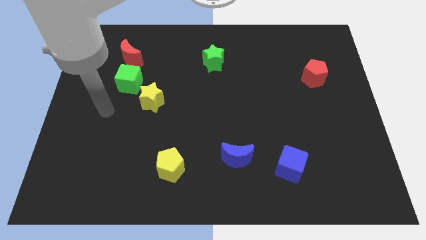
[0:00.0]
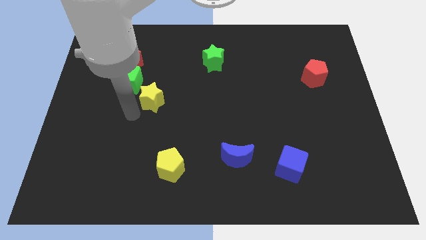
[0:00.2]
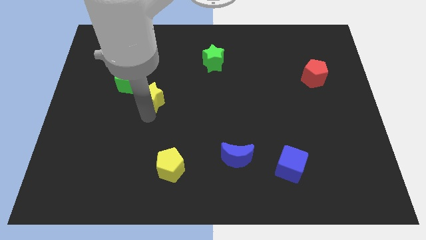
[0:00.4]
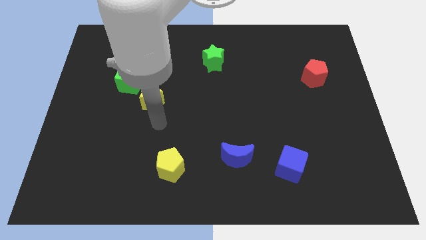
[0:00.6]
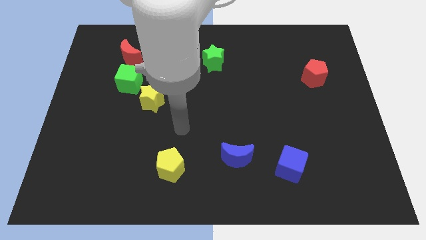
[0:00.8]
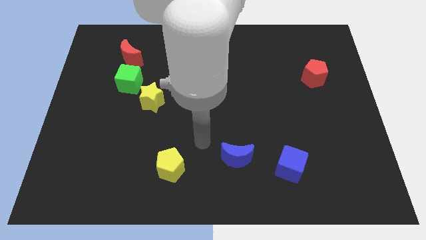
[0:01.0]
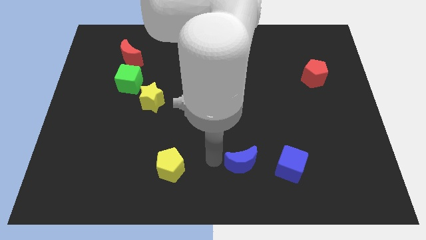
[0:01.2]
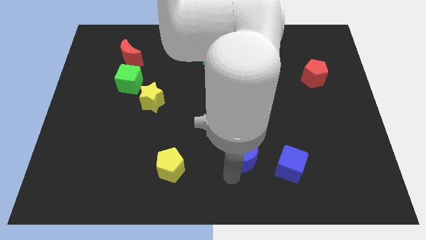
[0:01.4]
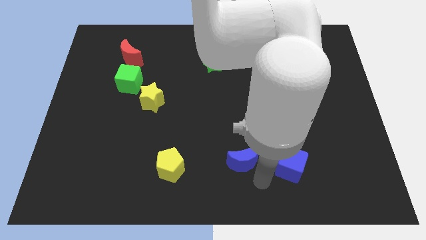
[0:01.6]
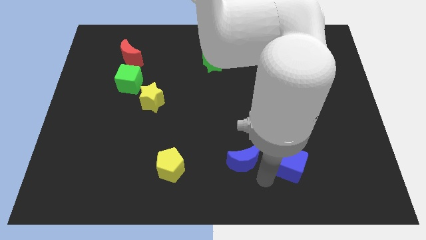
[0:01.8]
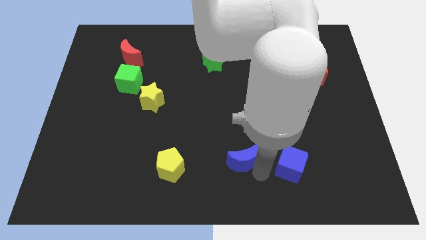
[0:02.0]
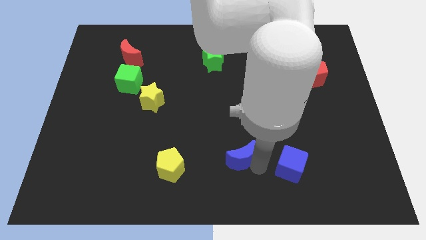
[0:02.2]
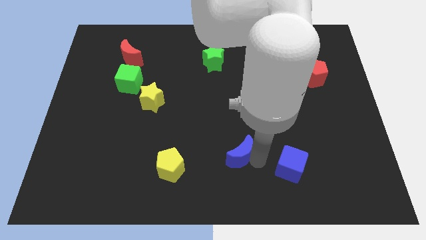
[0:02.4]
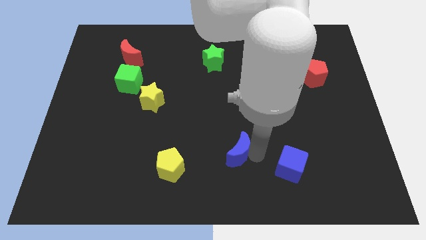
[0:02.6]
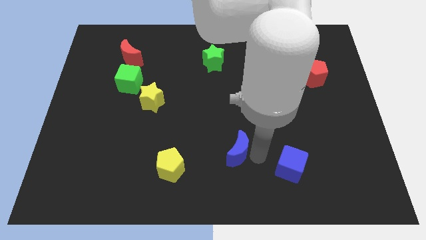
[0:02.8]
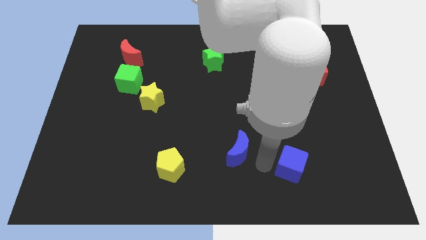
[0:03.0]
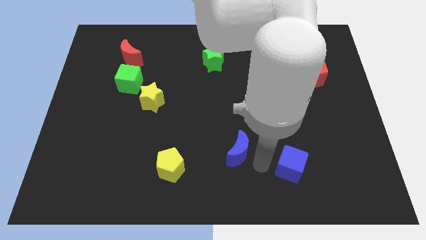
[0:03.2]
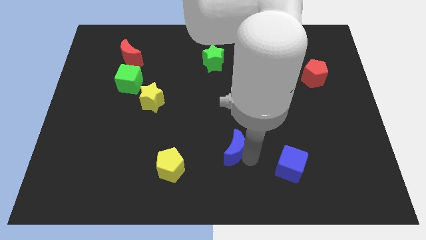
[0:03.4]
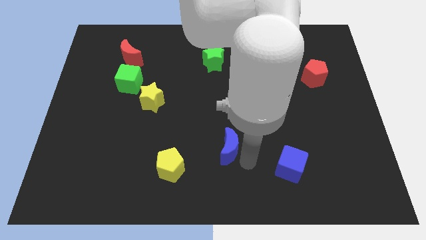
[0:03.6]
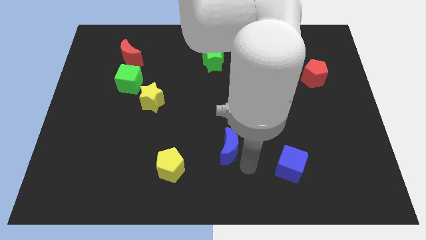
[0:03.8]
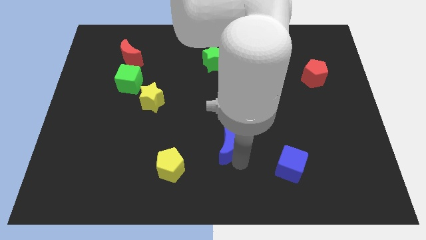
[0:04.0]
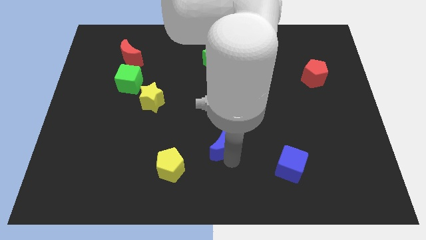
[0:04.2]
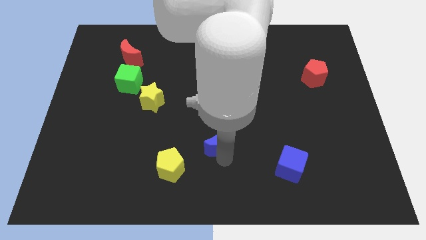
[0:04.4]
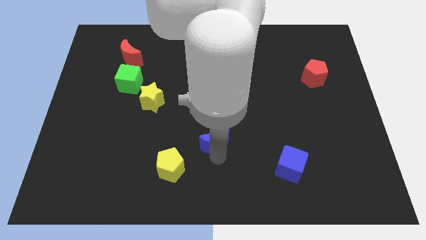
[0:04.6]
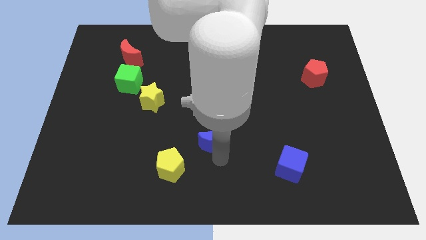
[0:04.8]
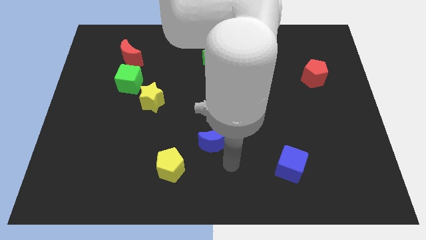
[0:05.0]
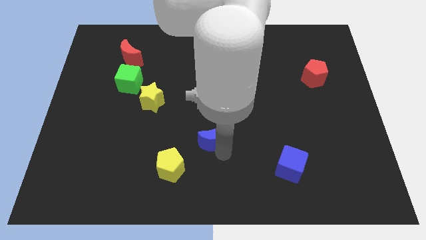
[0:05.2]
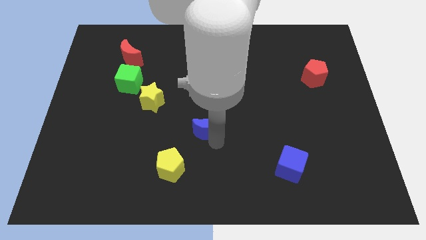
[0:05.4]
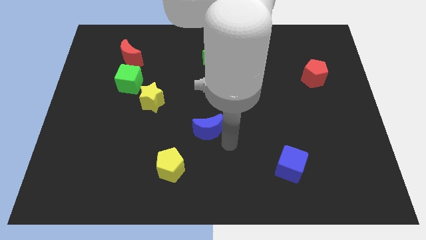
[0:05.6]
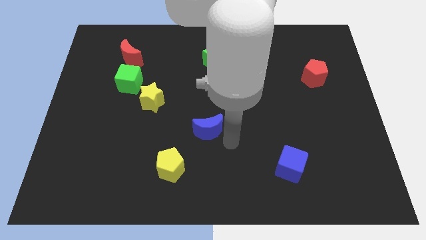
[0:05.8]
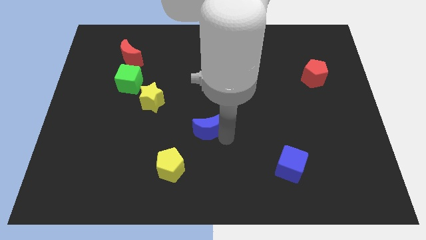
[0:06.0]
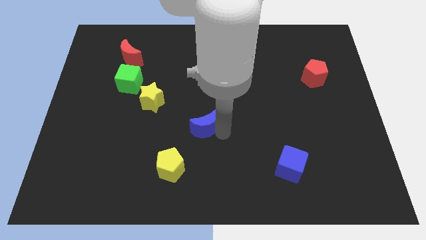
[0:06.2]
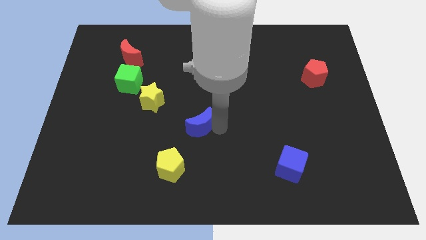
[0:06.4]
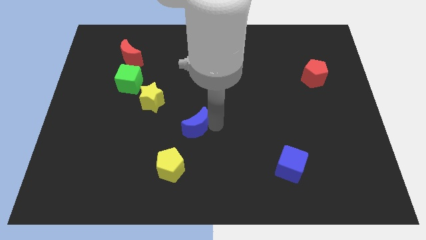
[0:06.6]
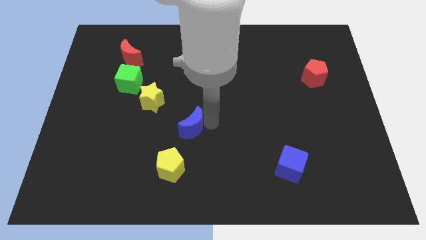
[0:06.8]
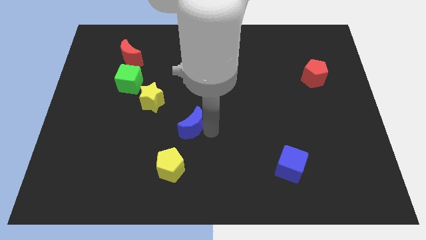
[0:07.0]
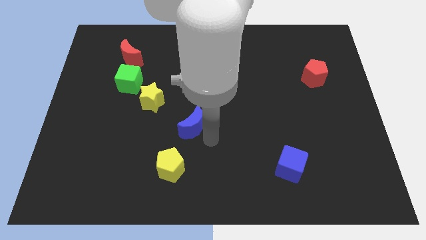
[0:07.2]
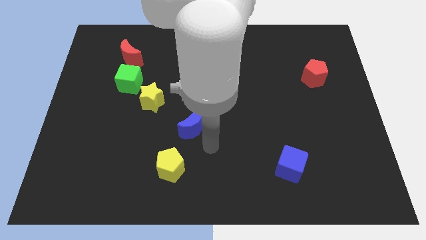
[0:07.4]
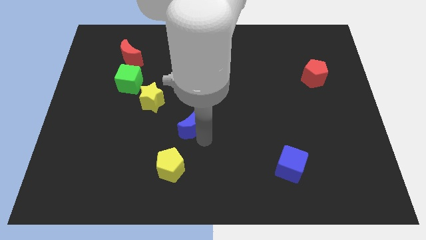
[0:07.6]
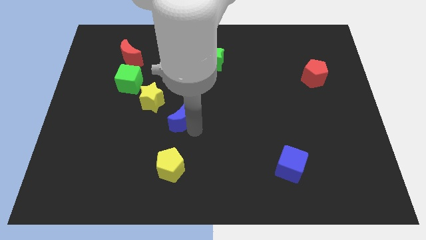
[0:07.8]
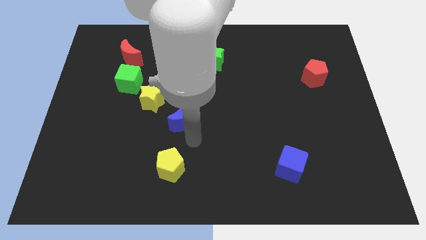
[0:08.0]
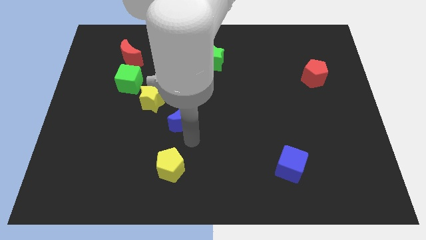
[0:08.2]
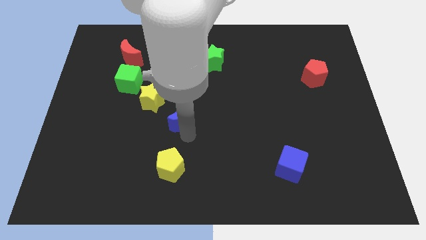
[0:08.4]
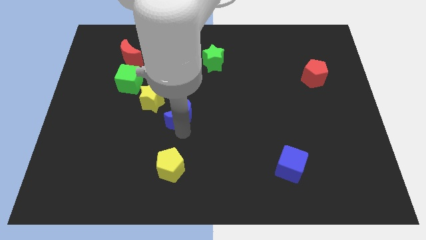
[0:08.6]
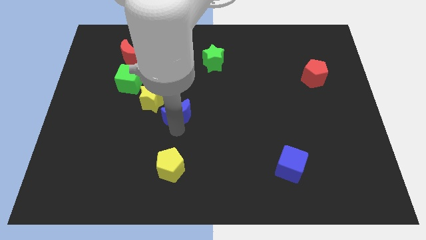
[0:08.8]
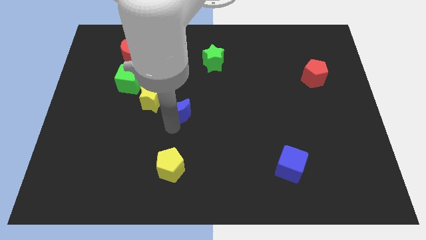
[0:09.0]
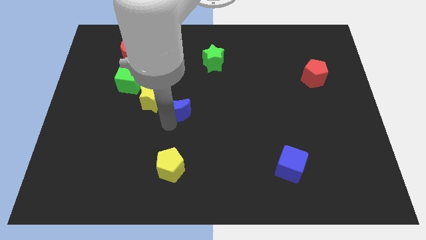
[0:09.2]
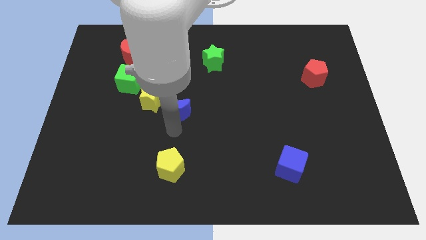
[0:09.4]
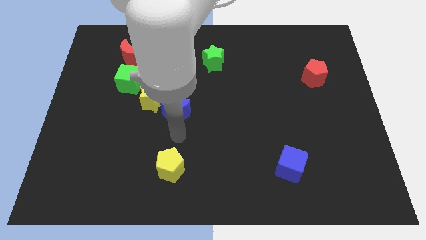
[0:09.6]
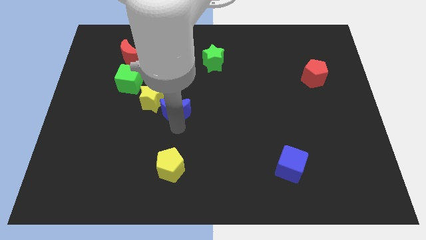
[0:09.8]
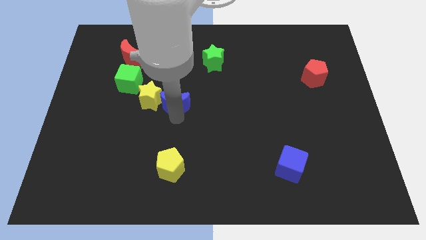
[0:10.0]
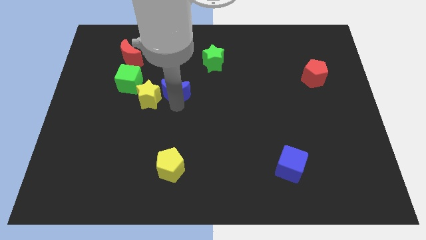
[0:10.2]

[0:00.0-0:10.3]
slide the blue moon right of the green cube

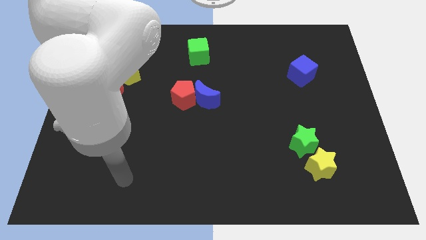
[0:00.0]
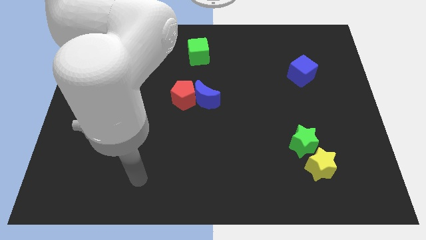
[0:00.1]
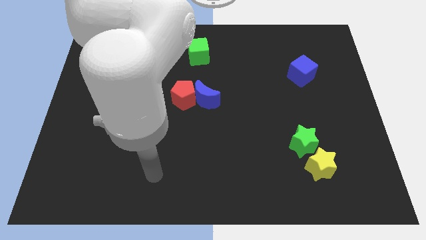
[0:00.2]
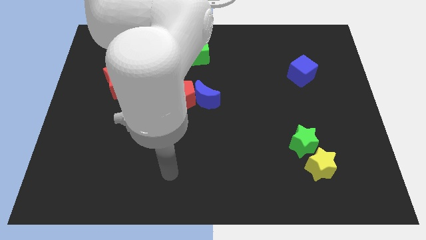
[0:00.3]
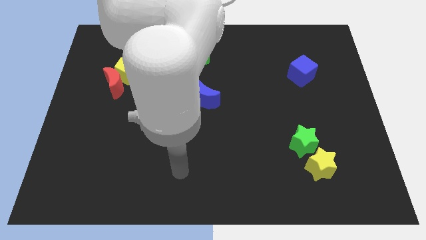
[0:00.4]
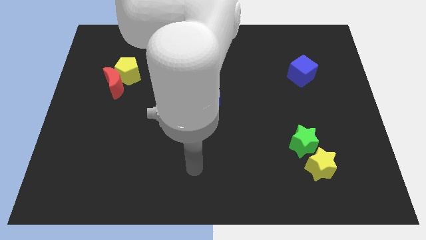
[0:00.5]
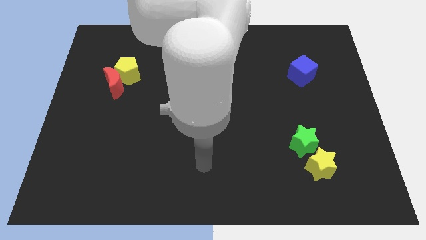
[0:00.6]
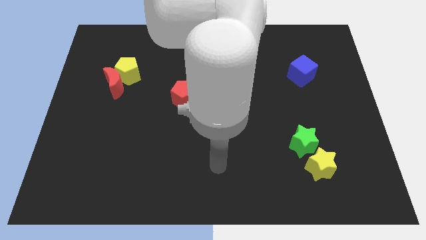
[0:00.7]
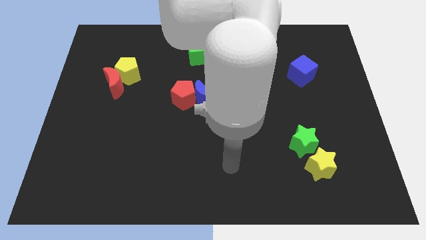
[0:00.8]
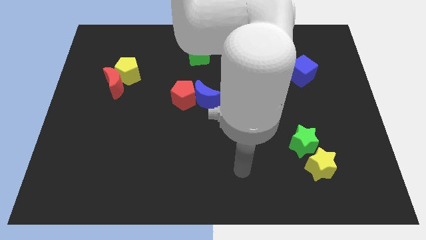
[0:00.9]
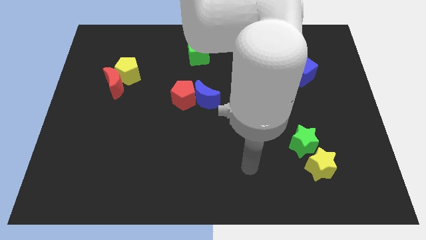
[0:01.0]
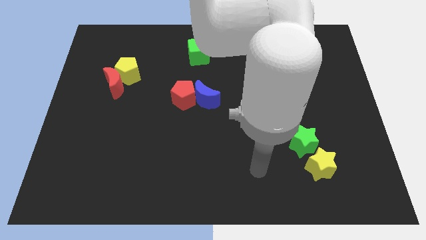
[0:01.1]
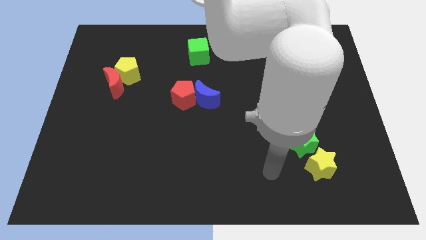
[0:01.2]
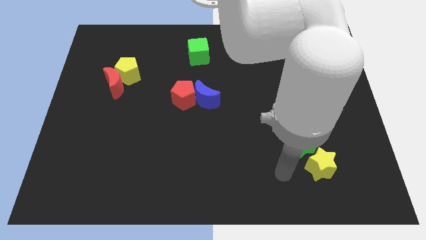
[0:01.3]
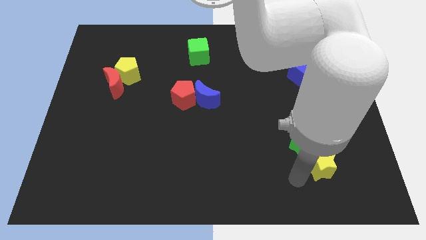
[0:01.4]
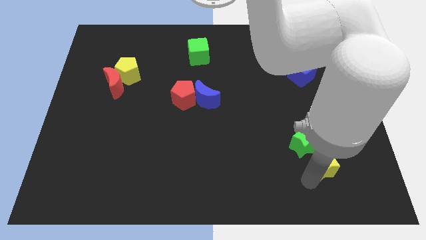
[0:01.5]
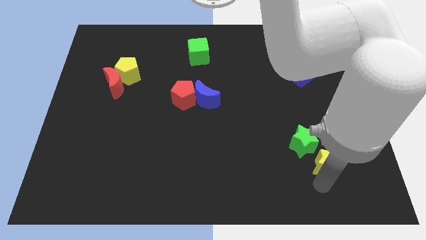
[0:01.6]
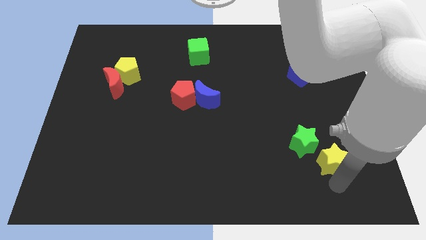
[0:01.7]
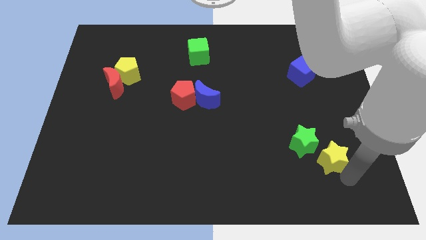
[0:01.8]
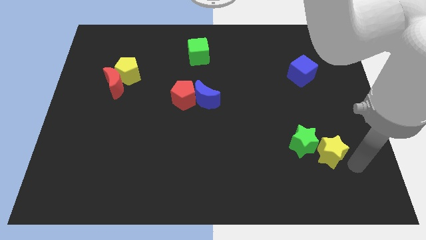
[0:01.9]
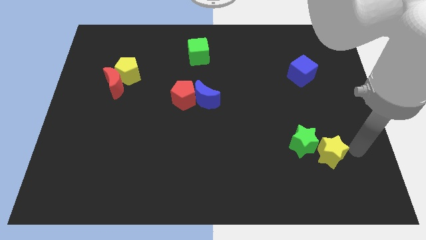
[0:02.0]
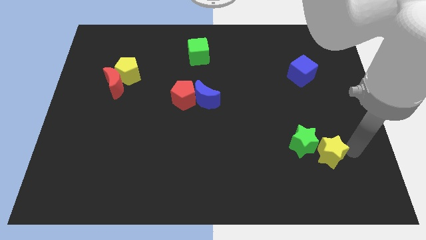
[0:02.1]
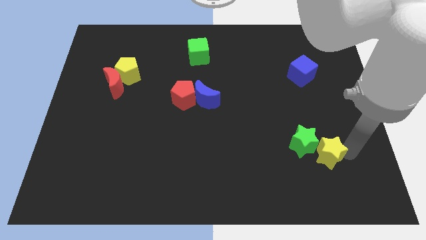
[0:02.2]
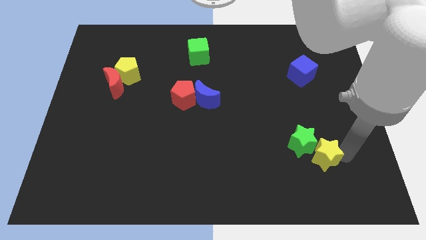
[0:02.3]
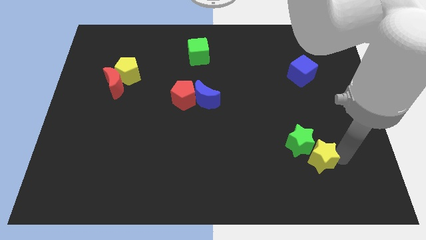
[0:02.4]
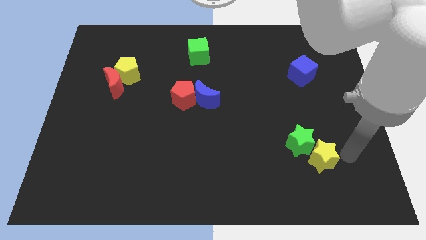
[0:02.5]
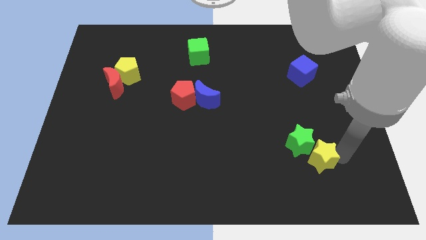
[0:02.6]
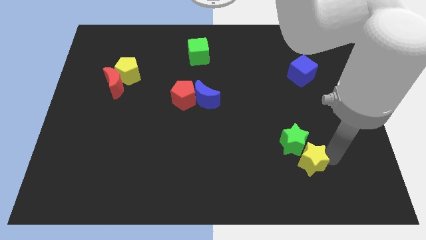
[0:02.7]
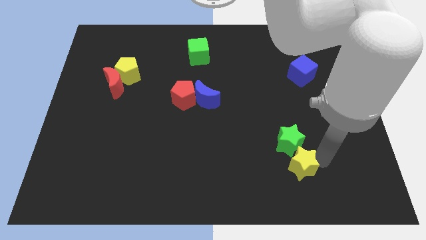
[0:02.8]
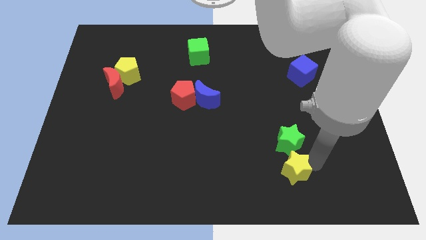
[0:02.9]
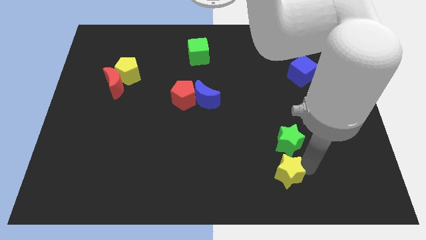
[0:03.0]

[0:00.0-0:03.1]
slide the yellow star to the bottom left side of the green star
